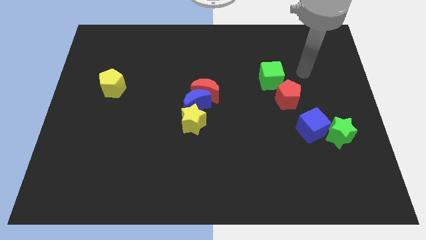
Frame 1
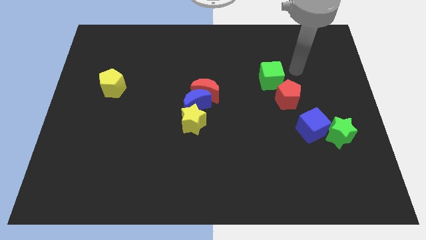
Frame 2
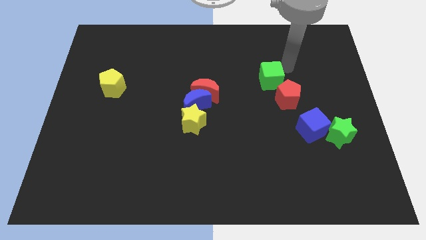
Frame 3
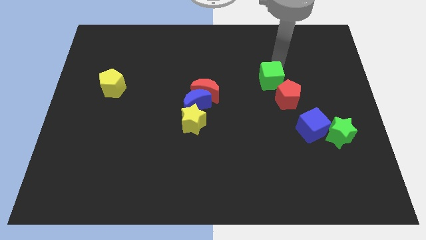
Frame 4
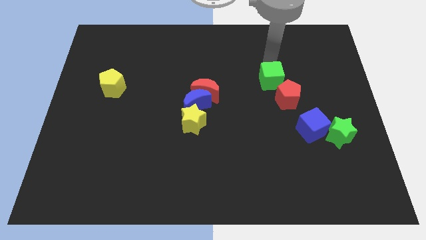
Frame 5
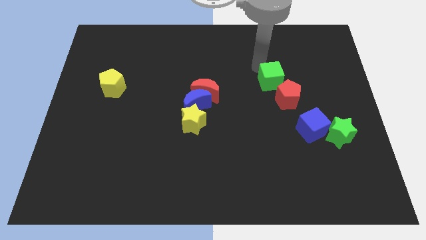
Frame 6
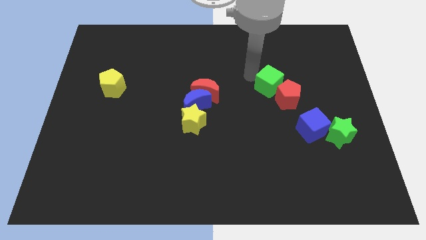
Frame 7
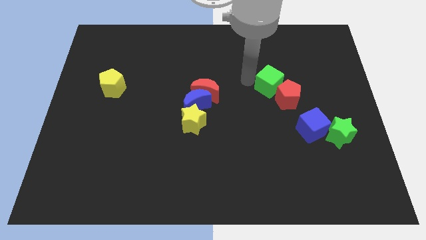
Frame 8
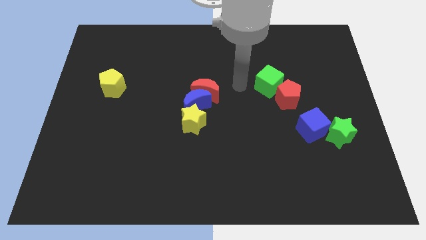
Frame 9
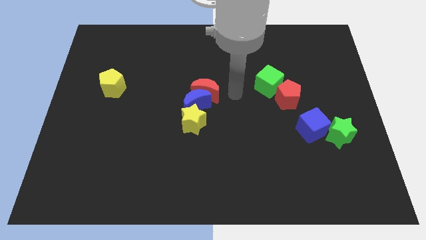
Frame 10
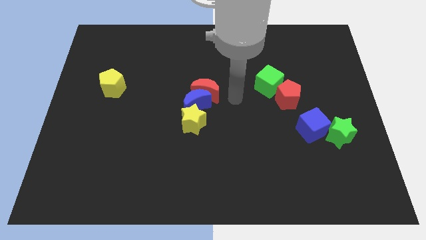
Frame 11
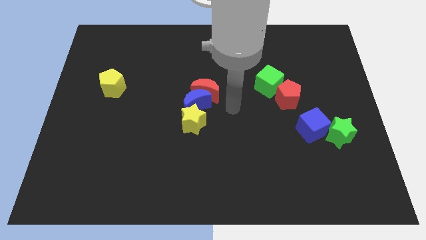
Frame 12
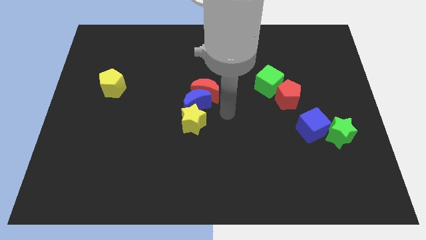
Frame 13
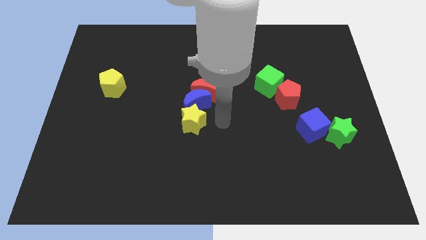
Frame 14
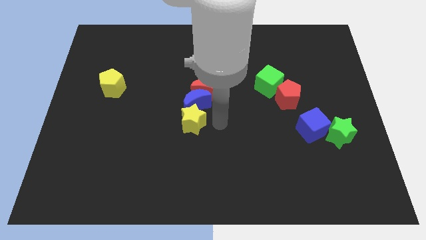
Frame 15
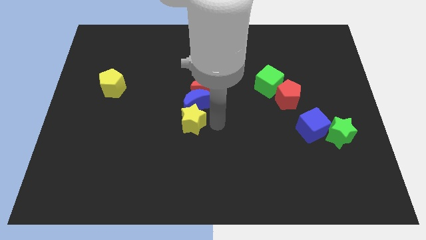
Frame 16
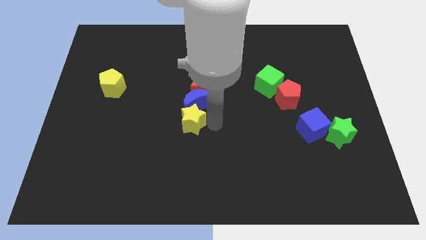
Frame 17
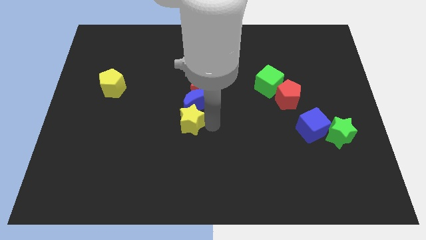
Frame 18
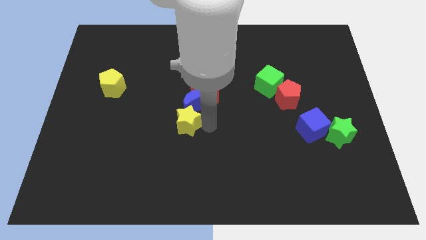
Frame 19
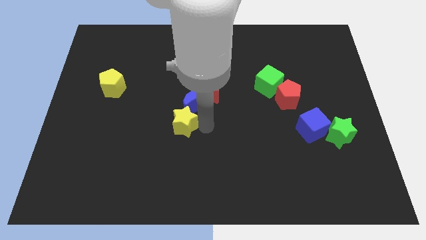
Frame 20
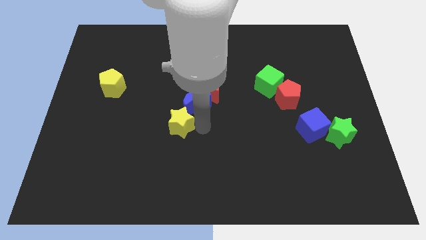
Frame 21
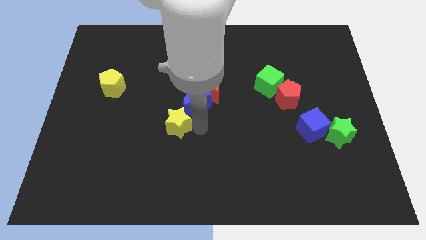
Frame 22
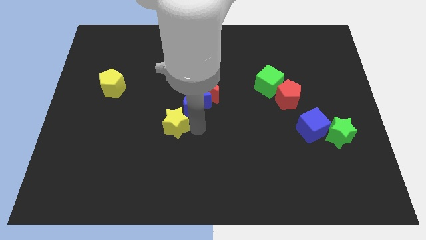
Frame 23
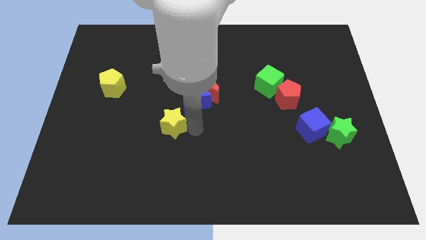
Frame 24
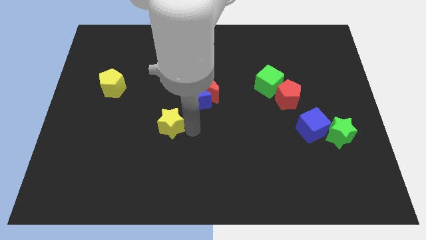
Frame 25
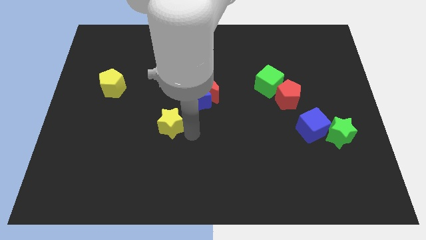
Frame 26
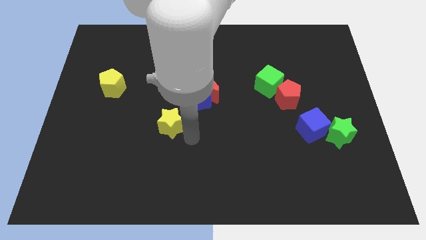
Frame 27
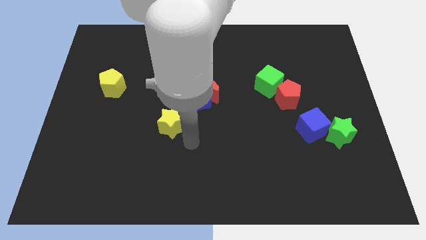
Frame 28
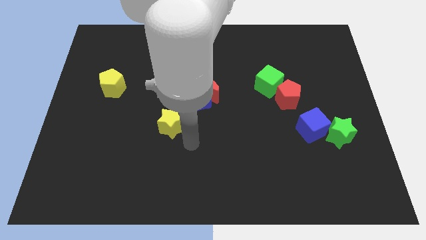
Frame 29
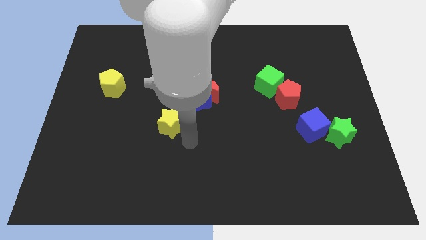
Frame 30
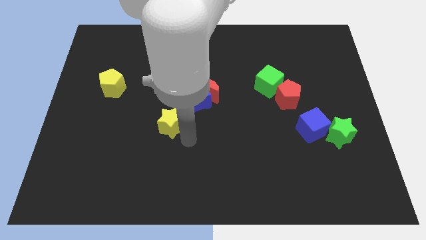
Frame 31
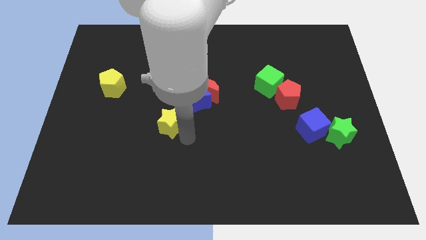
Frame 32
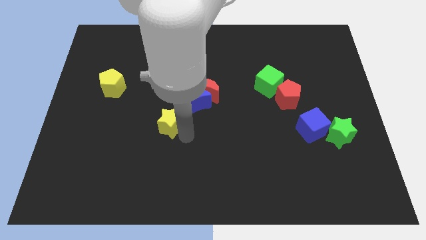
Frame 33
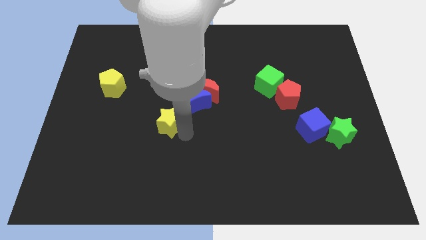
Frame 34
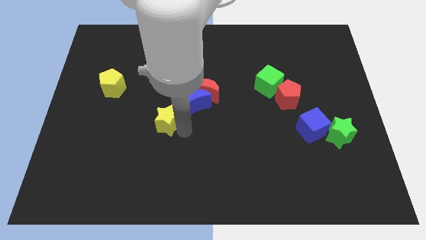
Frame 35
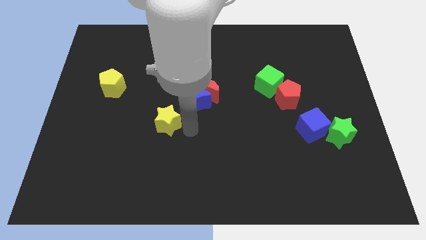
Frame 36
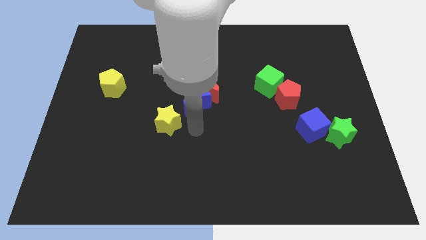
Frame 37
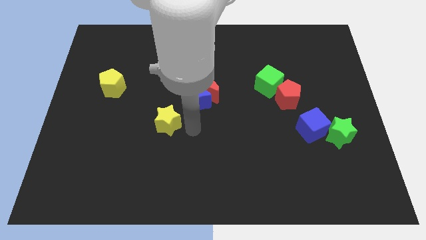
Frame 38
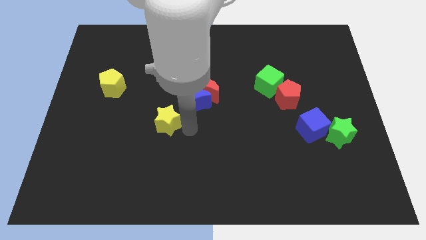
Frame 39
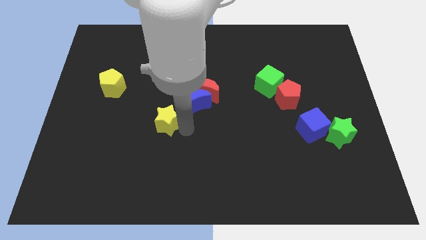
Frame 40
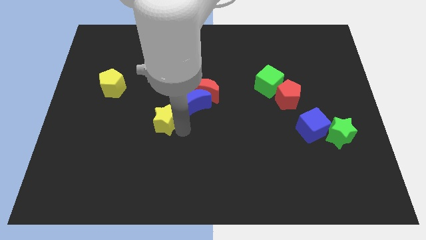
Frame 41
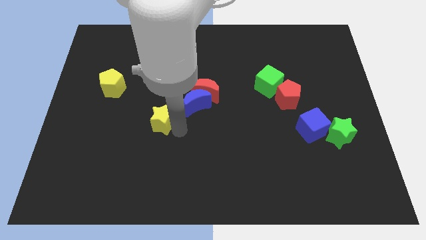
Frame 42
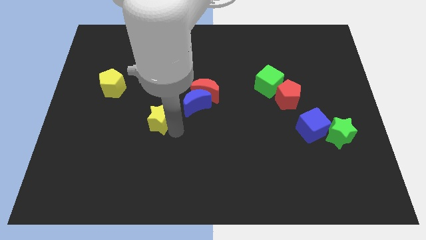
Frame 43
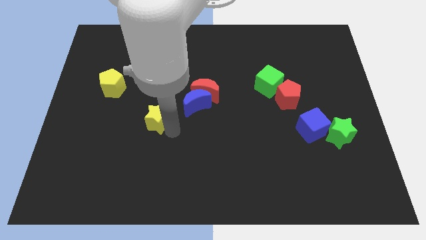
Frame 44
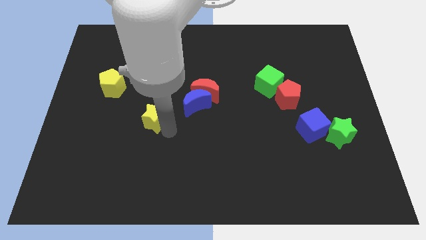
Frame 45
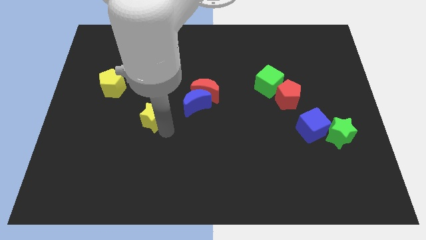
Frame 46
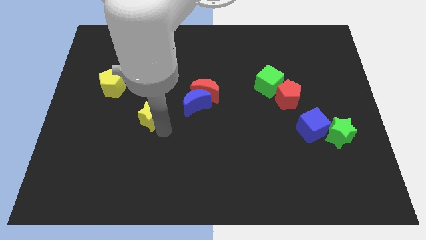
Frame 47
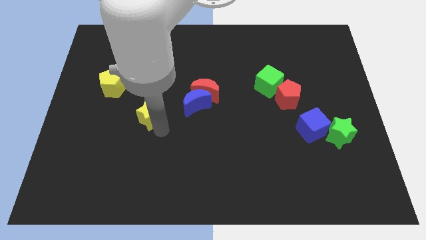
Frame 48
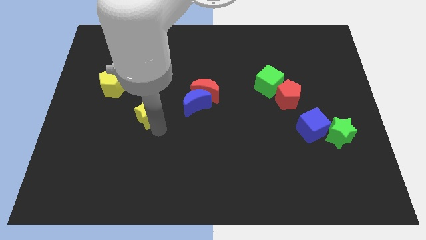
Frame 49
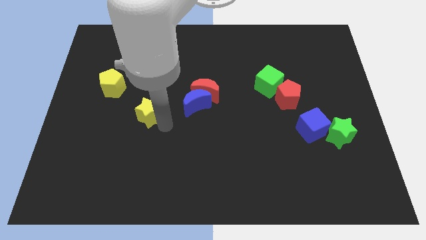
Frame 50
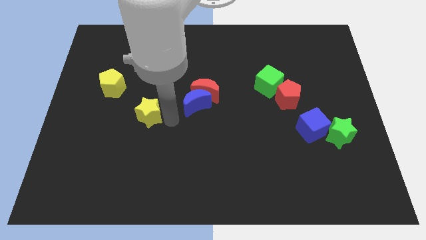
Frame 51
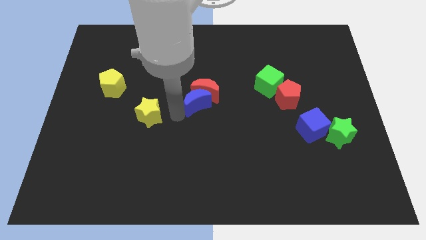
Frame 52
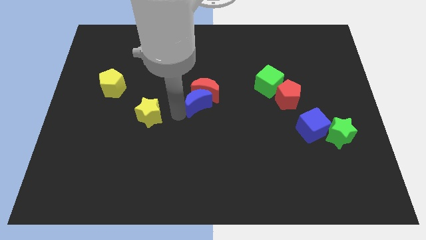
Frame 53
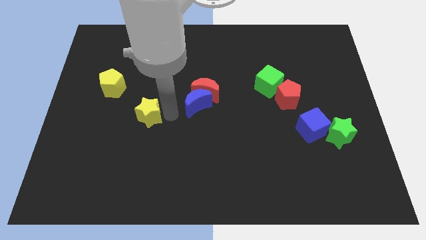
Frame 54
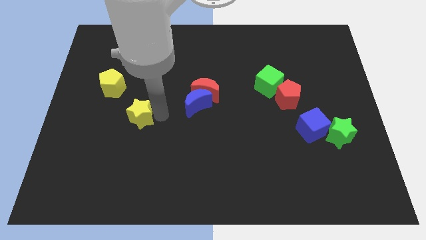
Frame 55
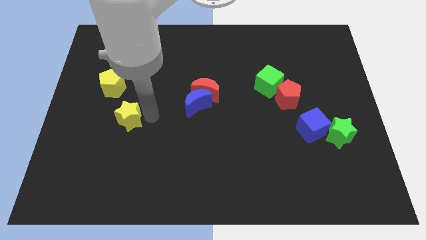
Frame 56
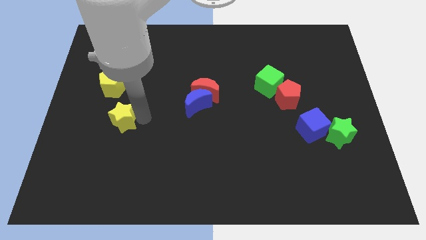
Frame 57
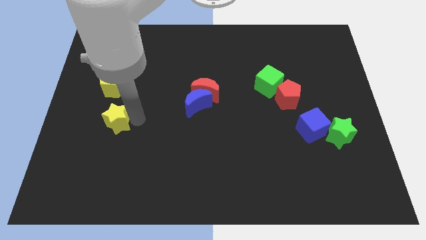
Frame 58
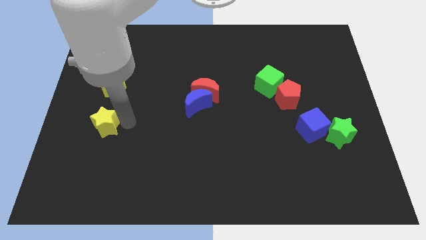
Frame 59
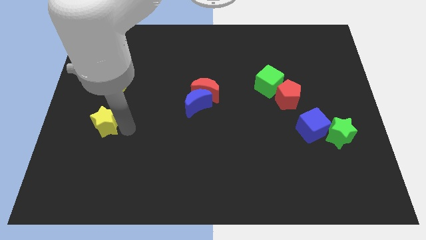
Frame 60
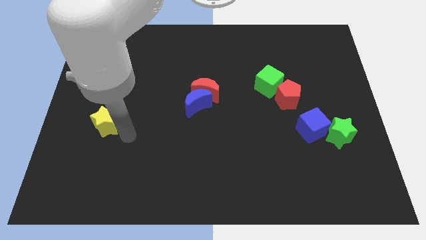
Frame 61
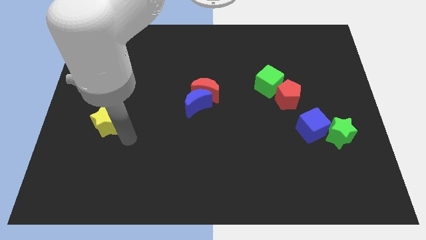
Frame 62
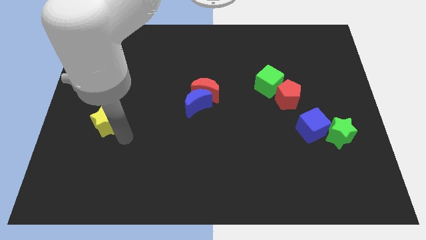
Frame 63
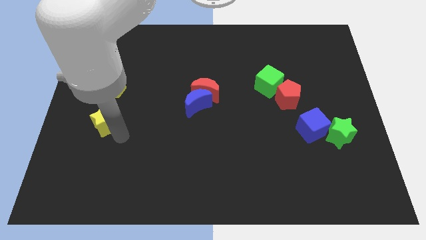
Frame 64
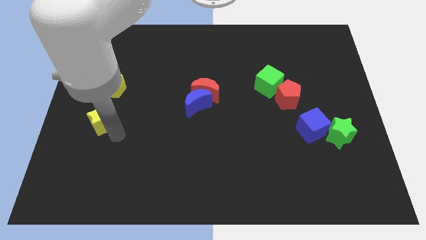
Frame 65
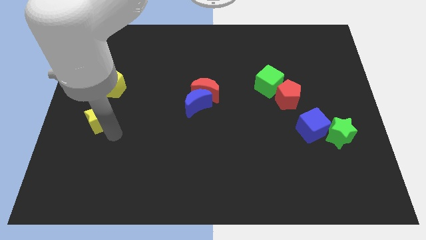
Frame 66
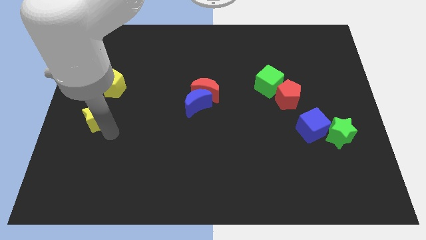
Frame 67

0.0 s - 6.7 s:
move the yellow star to the center left

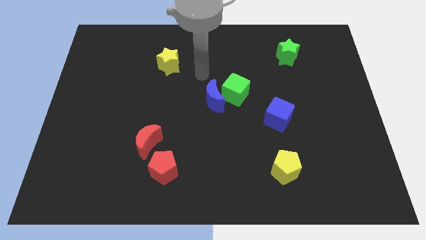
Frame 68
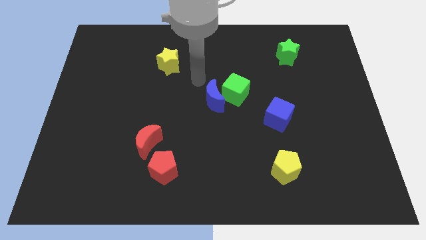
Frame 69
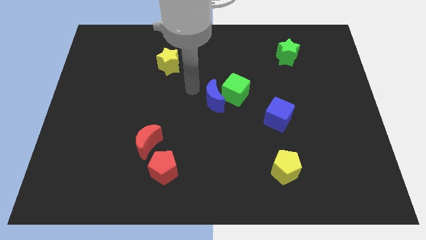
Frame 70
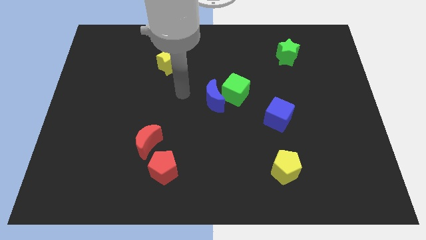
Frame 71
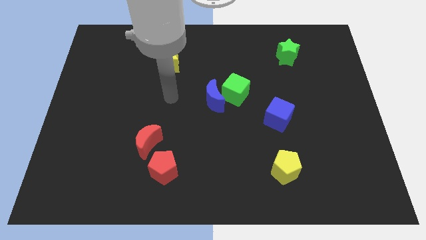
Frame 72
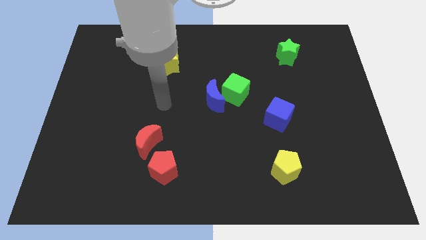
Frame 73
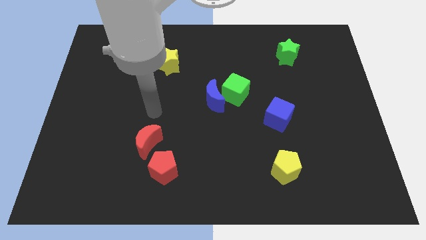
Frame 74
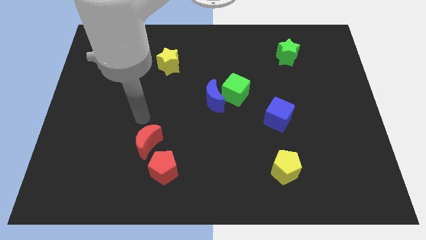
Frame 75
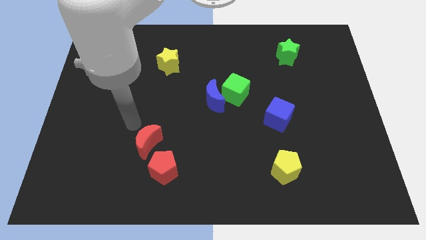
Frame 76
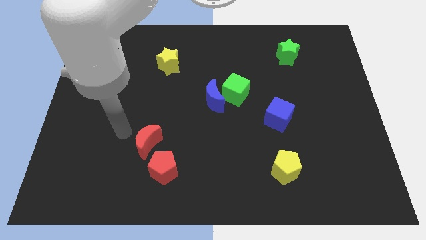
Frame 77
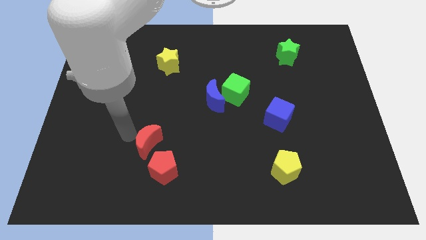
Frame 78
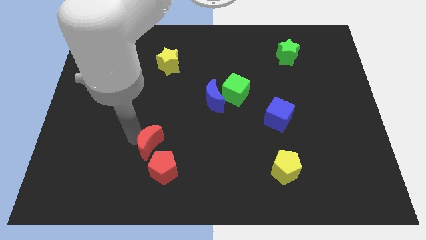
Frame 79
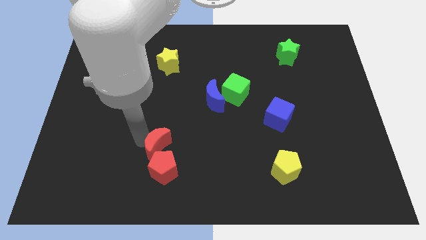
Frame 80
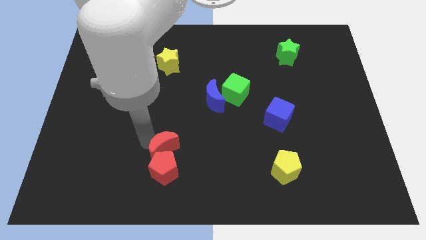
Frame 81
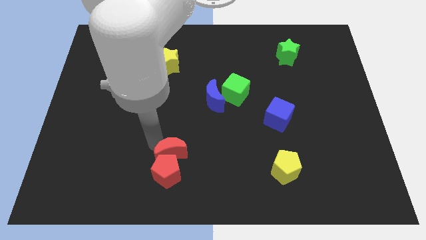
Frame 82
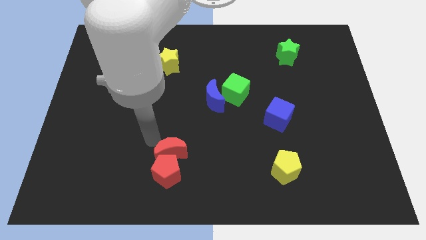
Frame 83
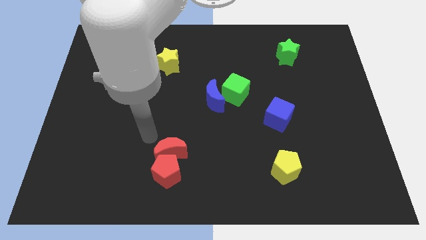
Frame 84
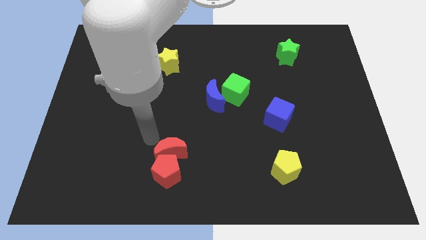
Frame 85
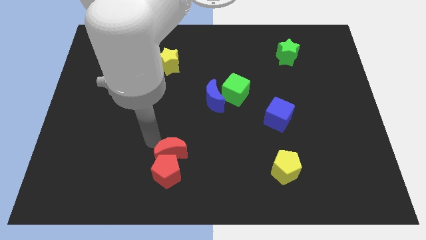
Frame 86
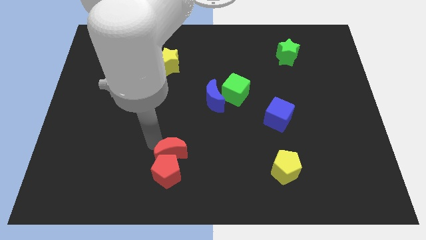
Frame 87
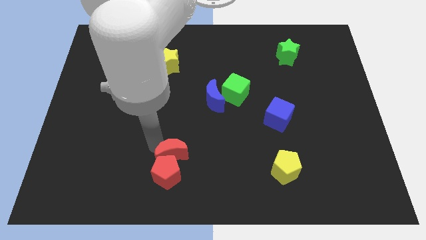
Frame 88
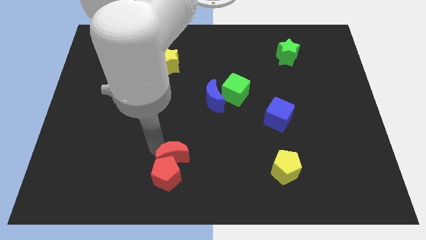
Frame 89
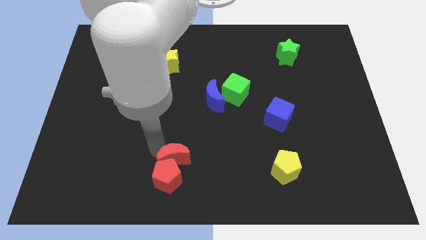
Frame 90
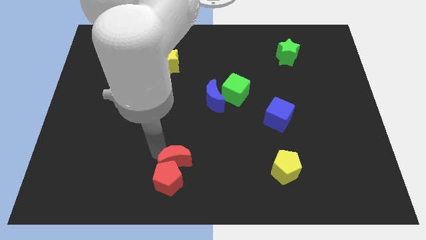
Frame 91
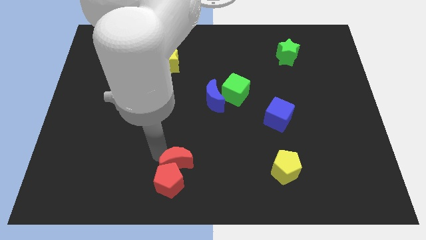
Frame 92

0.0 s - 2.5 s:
put the red moon to the bottom
